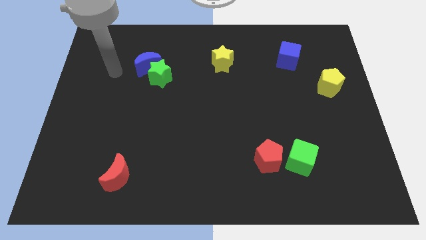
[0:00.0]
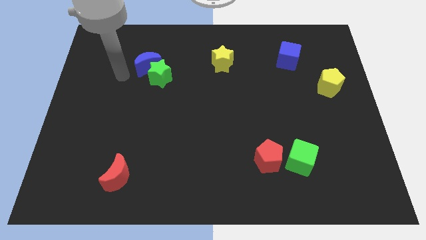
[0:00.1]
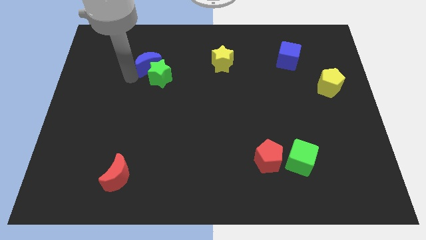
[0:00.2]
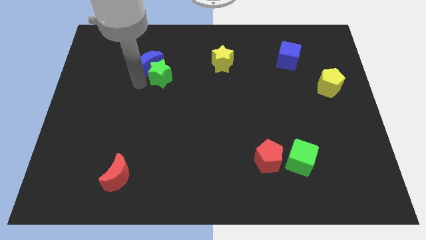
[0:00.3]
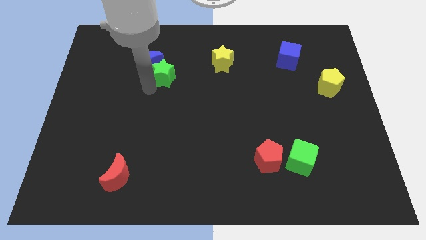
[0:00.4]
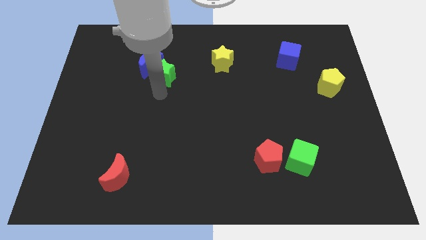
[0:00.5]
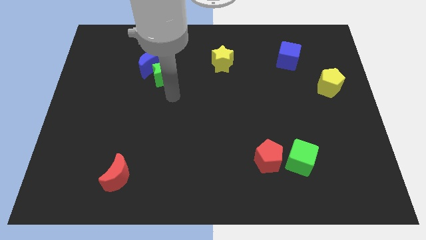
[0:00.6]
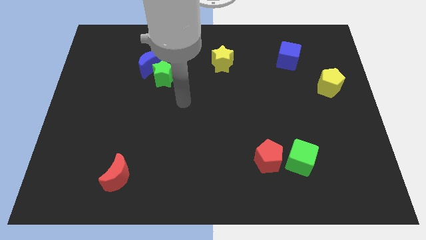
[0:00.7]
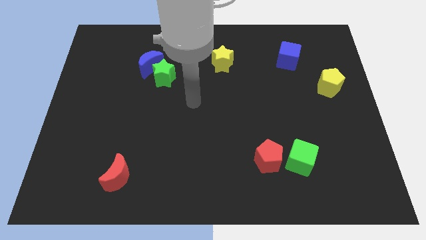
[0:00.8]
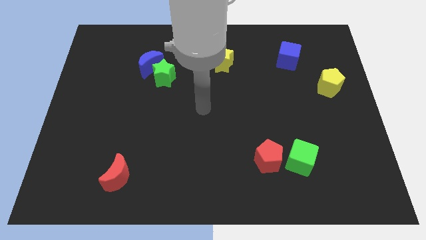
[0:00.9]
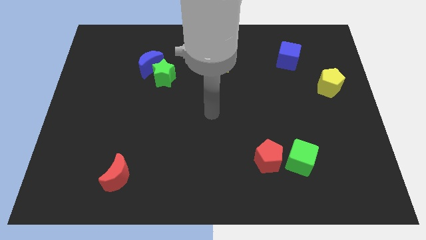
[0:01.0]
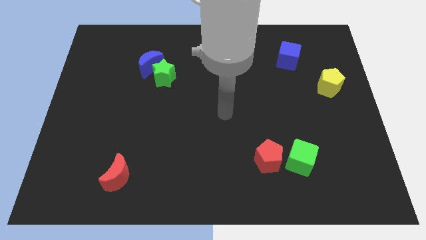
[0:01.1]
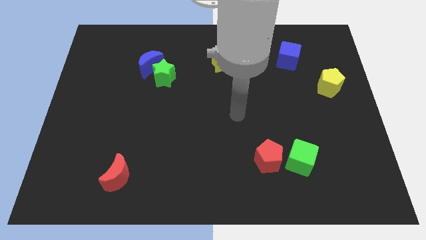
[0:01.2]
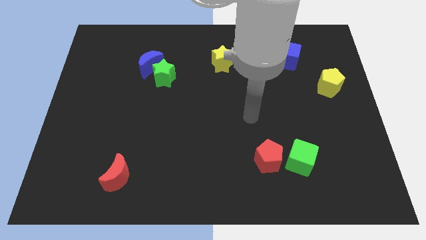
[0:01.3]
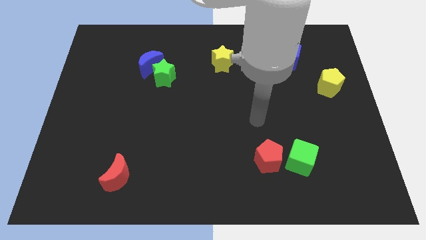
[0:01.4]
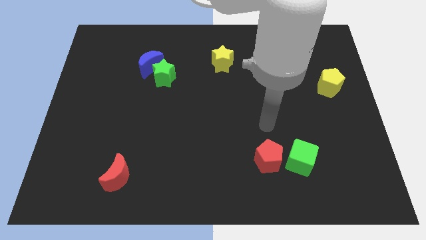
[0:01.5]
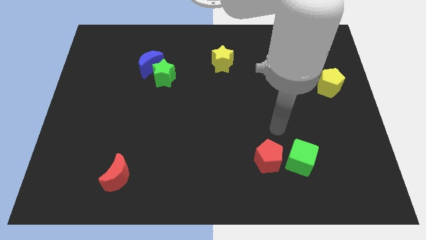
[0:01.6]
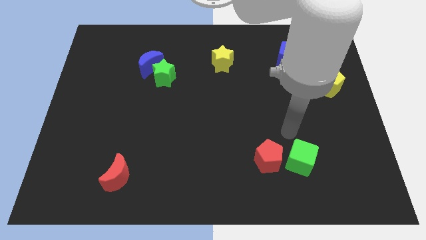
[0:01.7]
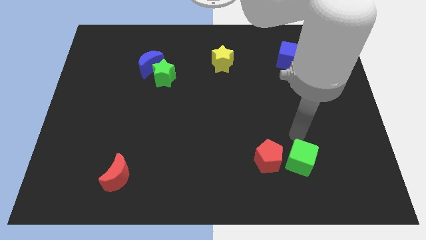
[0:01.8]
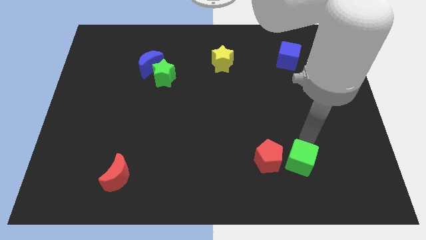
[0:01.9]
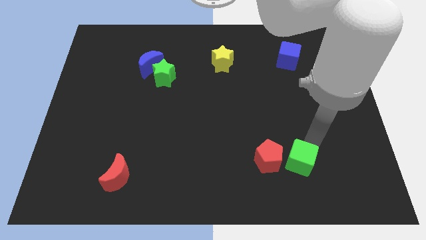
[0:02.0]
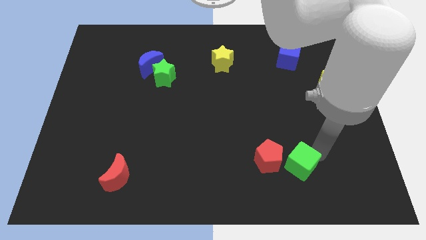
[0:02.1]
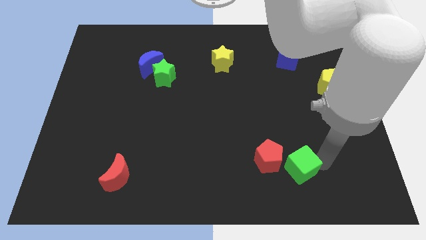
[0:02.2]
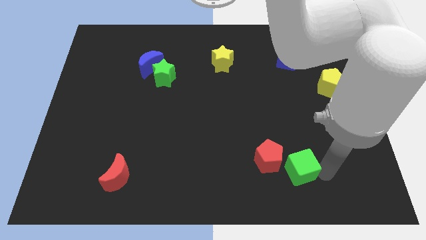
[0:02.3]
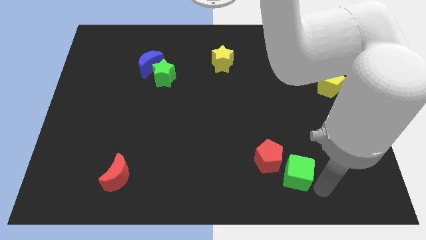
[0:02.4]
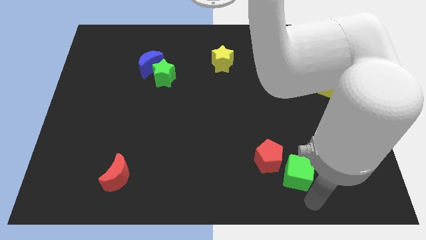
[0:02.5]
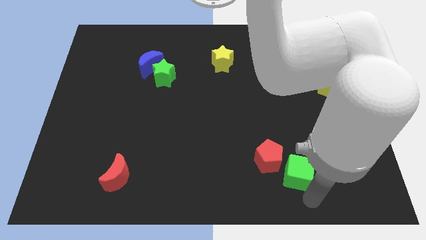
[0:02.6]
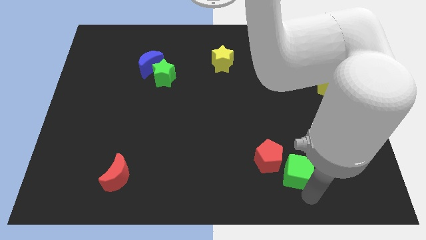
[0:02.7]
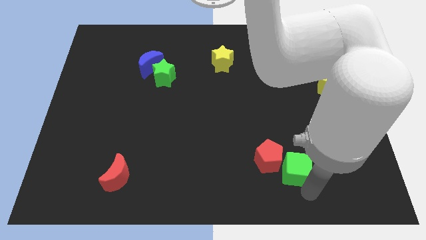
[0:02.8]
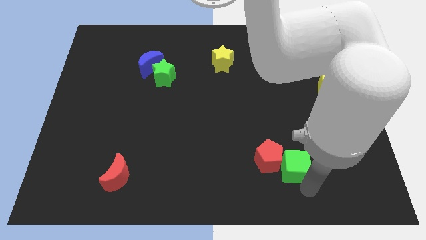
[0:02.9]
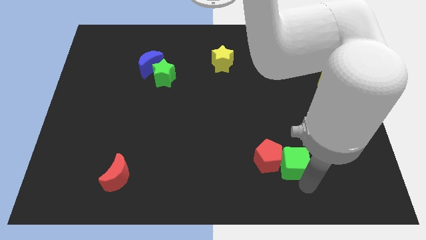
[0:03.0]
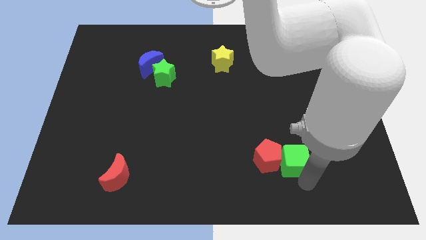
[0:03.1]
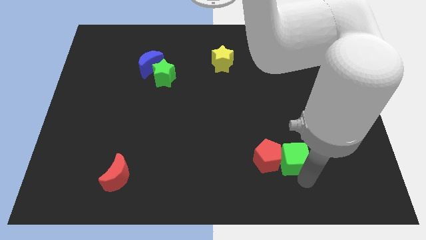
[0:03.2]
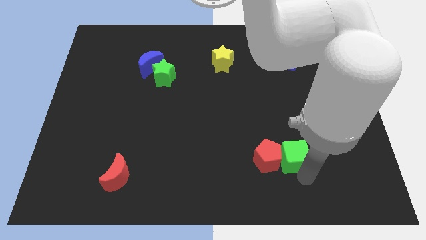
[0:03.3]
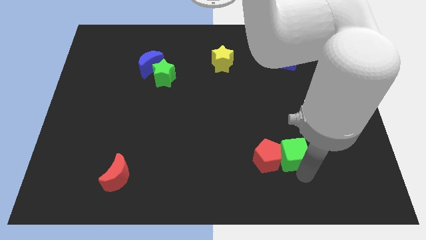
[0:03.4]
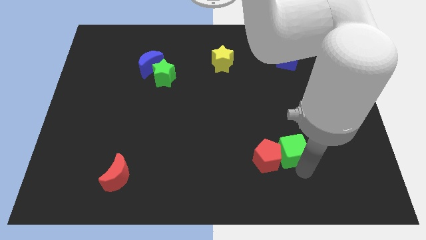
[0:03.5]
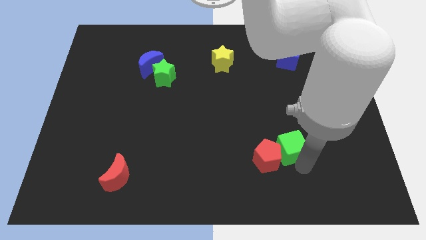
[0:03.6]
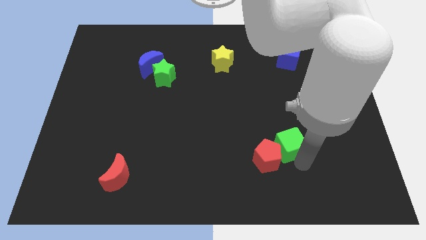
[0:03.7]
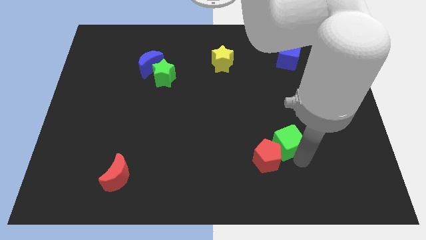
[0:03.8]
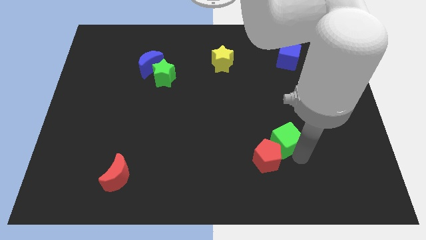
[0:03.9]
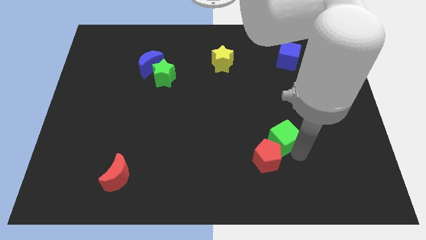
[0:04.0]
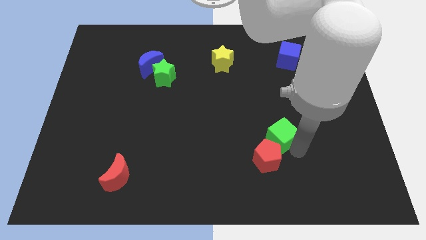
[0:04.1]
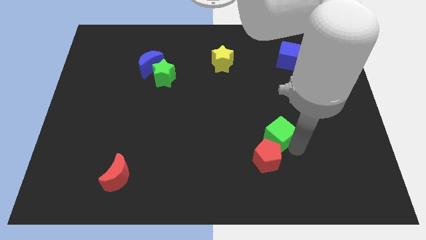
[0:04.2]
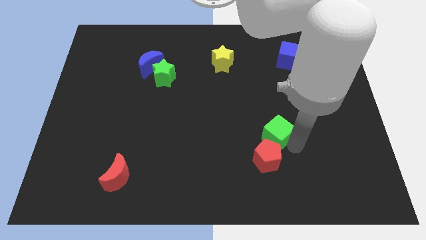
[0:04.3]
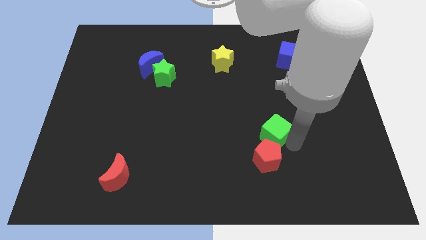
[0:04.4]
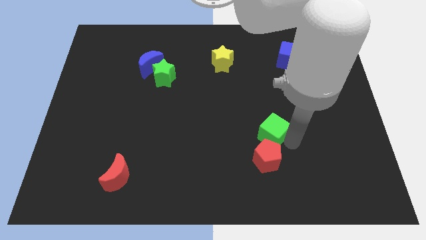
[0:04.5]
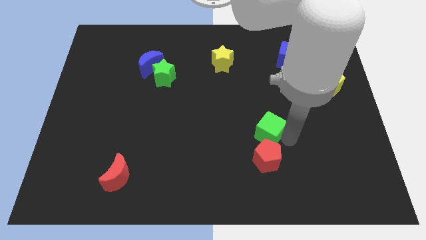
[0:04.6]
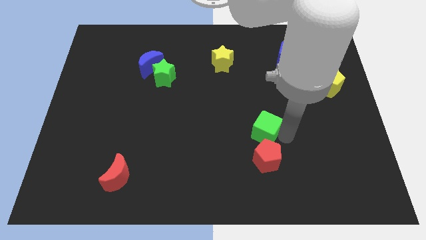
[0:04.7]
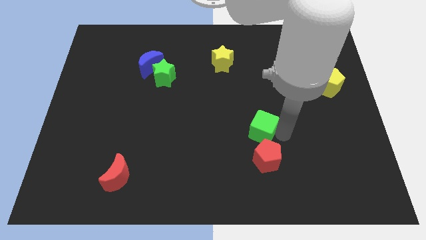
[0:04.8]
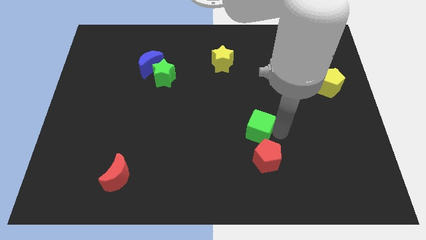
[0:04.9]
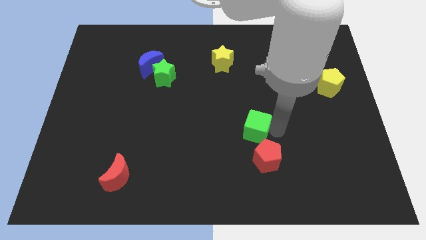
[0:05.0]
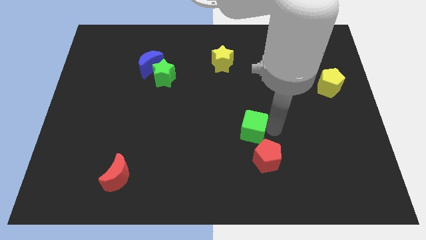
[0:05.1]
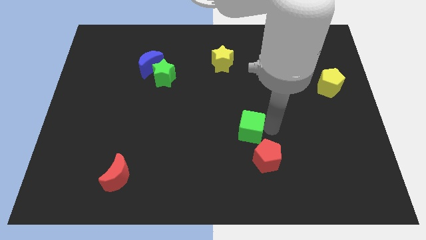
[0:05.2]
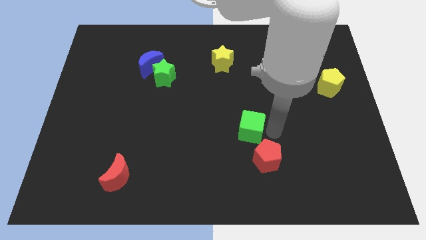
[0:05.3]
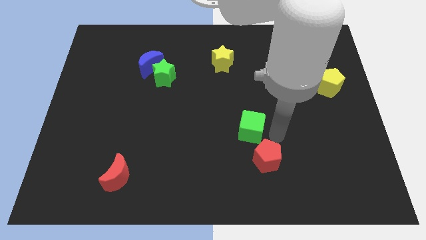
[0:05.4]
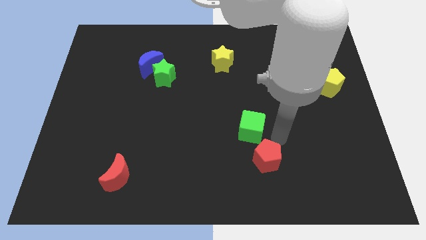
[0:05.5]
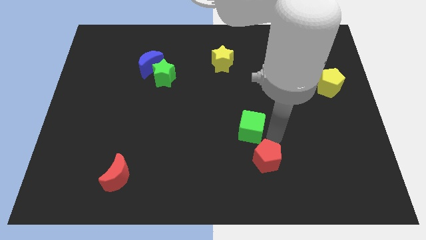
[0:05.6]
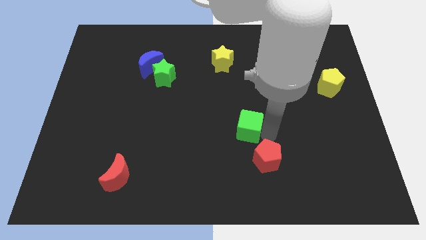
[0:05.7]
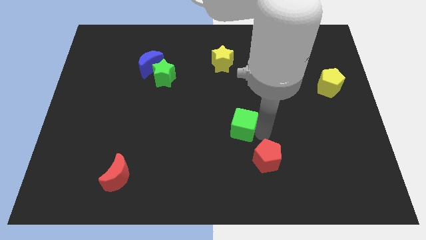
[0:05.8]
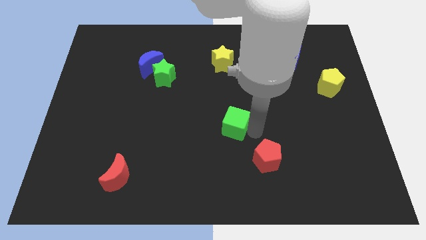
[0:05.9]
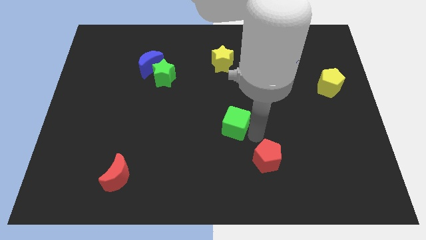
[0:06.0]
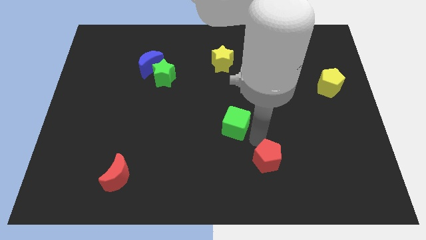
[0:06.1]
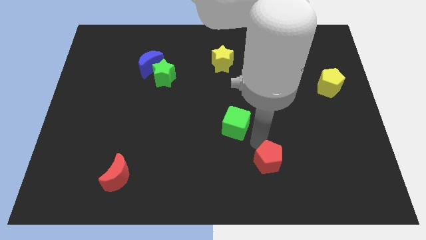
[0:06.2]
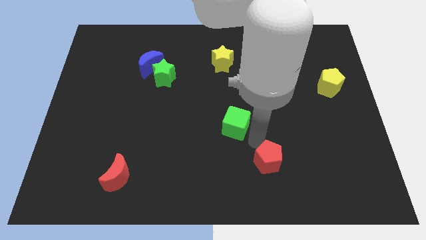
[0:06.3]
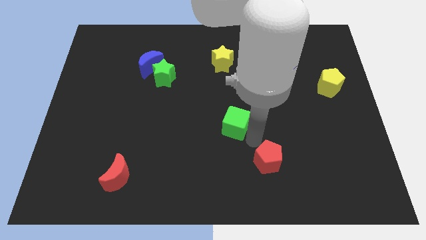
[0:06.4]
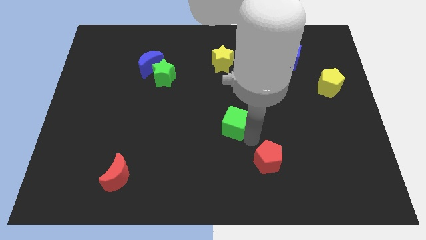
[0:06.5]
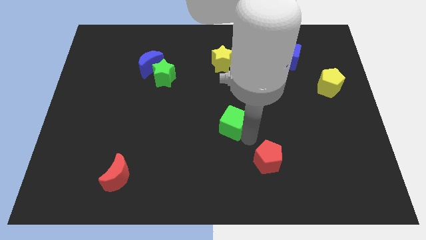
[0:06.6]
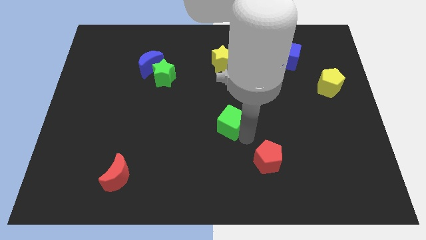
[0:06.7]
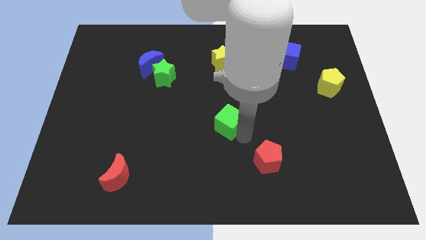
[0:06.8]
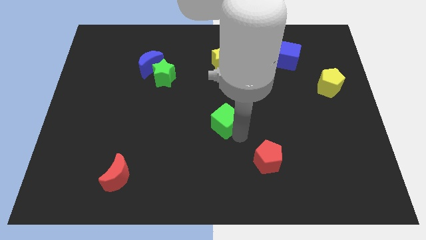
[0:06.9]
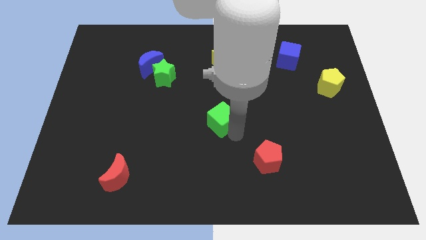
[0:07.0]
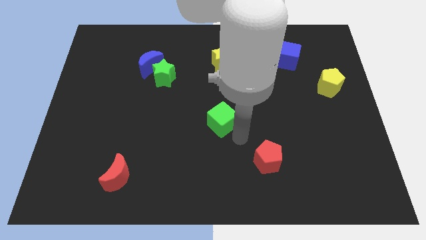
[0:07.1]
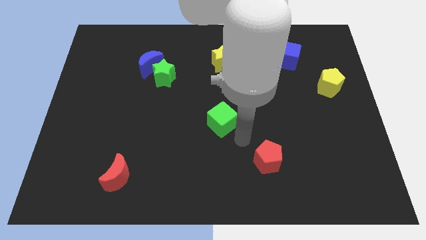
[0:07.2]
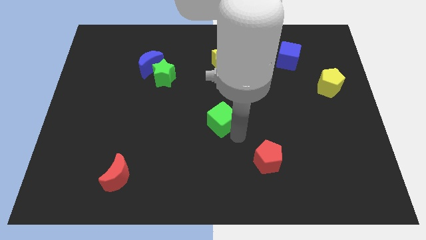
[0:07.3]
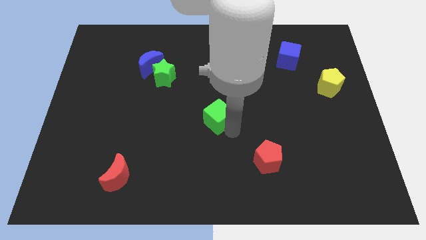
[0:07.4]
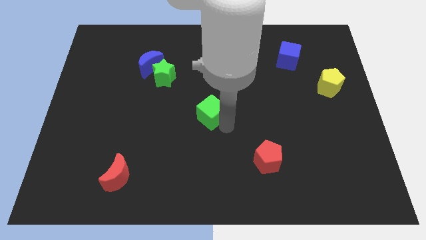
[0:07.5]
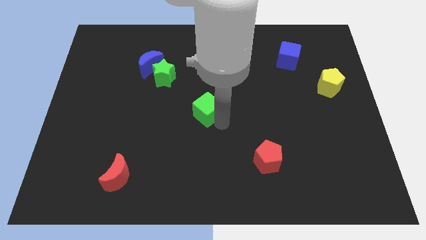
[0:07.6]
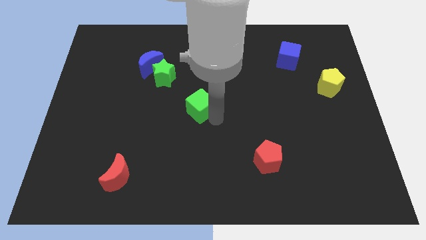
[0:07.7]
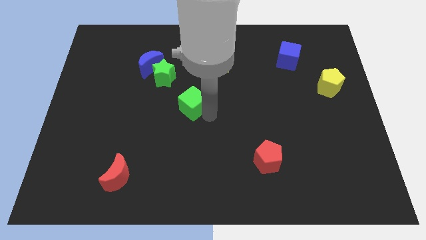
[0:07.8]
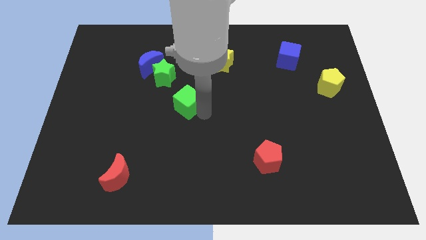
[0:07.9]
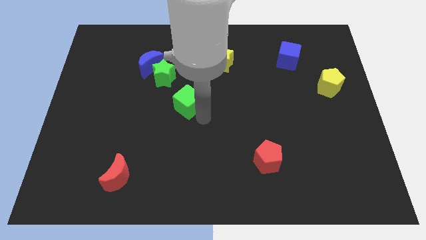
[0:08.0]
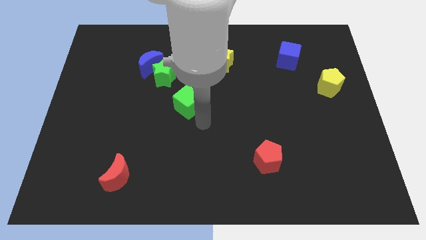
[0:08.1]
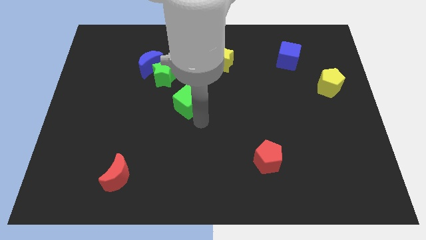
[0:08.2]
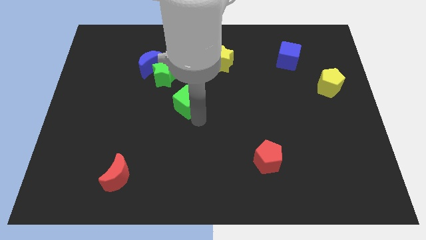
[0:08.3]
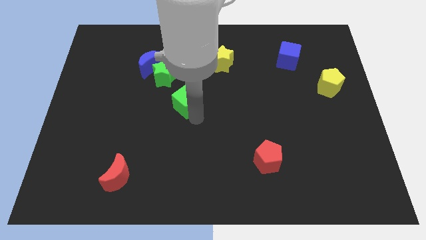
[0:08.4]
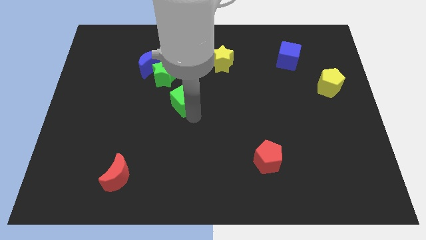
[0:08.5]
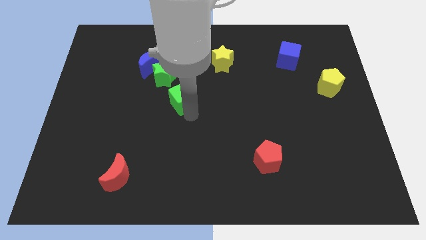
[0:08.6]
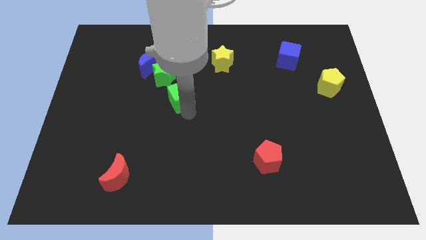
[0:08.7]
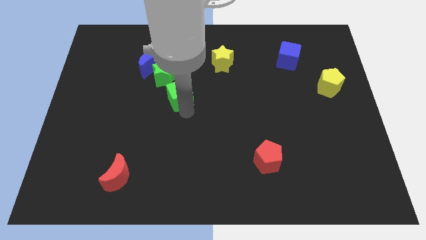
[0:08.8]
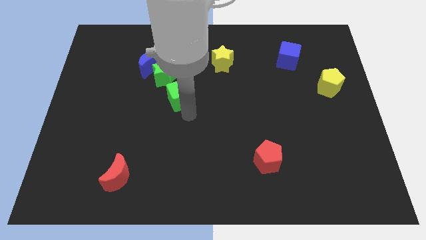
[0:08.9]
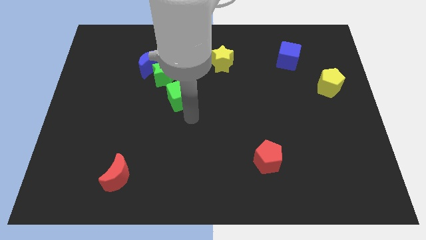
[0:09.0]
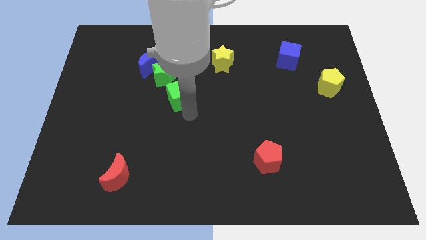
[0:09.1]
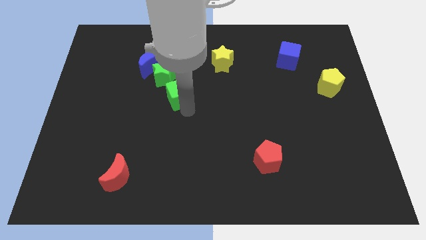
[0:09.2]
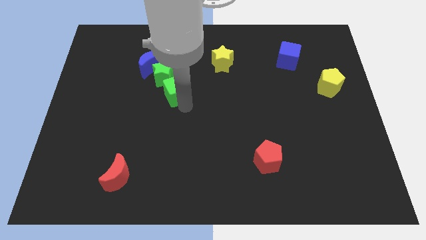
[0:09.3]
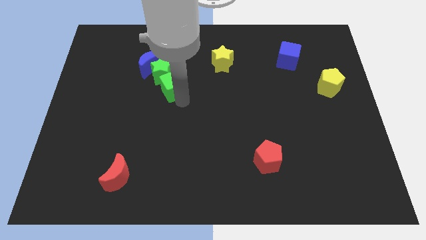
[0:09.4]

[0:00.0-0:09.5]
slide the green cube close to the green star
